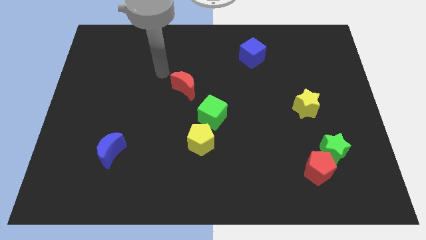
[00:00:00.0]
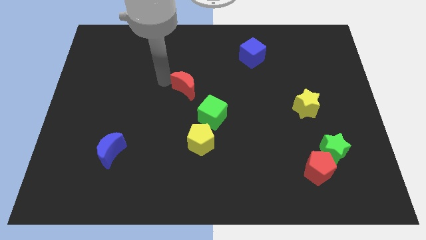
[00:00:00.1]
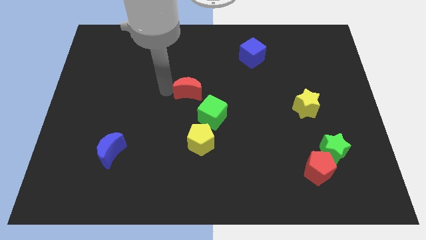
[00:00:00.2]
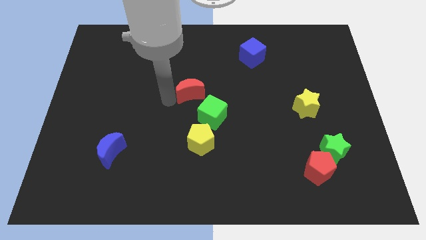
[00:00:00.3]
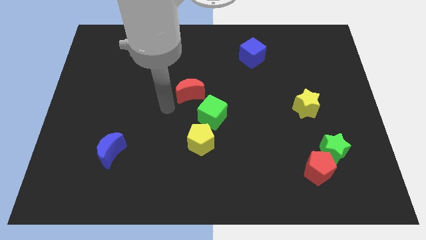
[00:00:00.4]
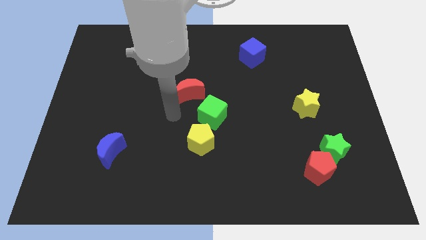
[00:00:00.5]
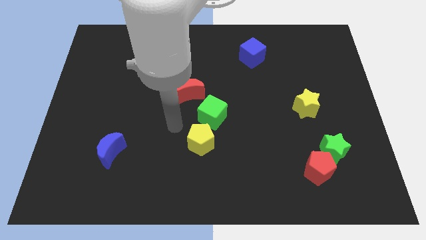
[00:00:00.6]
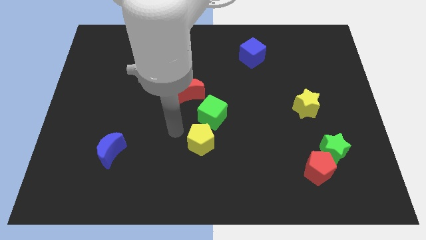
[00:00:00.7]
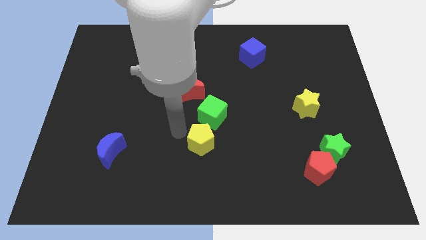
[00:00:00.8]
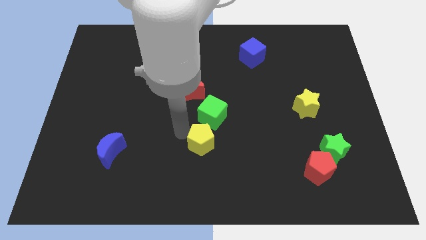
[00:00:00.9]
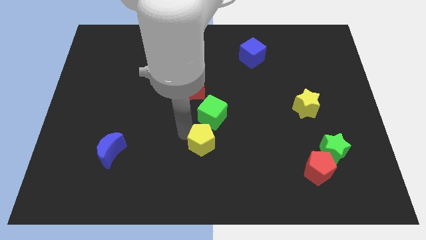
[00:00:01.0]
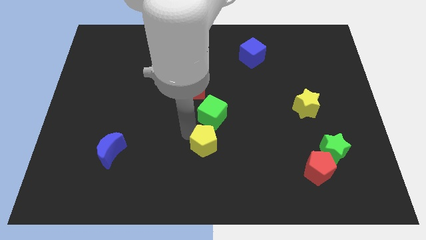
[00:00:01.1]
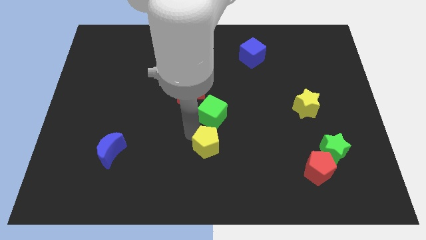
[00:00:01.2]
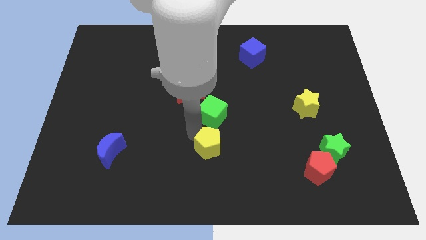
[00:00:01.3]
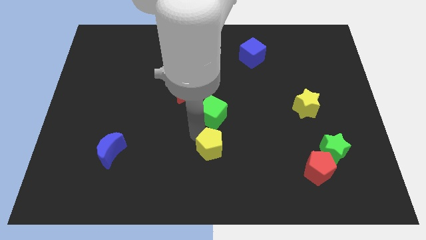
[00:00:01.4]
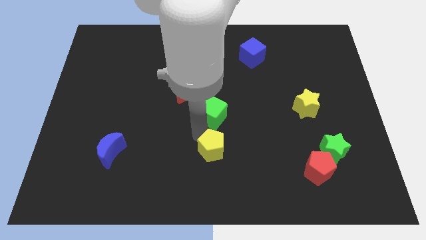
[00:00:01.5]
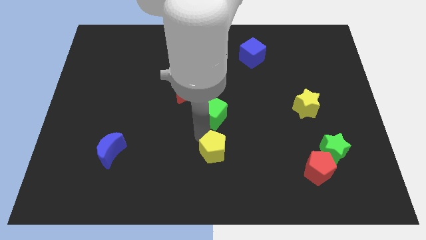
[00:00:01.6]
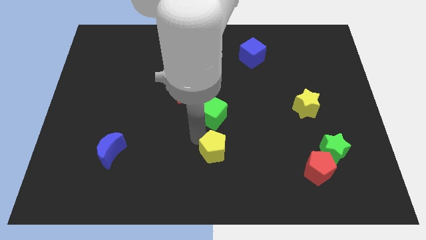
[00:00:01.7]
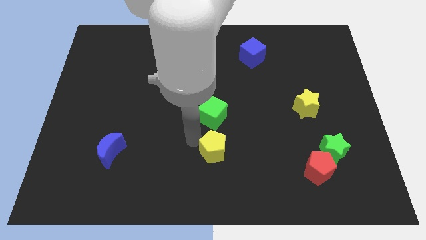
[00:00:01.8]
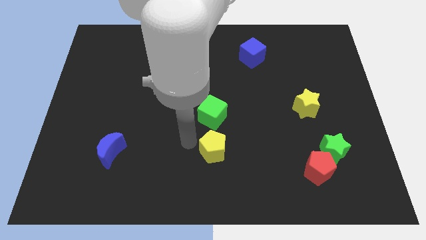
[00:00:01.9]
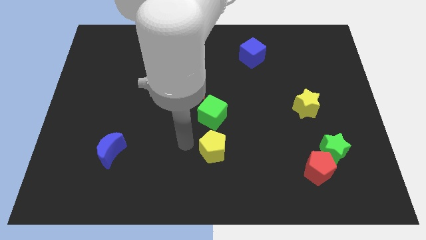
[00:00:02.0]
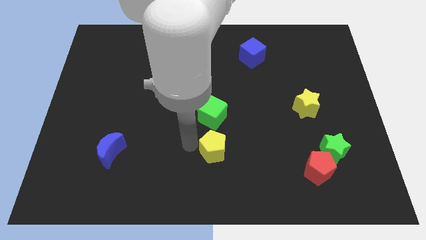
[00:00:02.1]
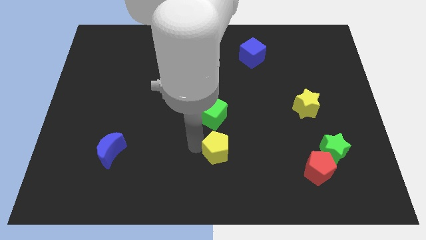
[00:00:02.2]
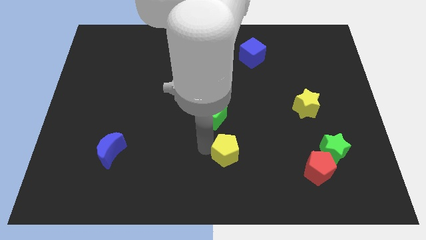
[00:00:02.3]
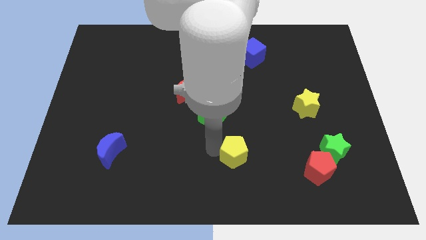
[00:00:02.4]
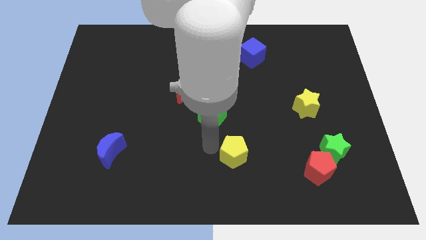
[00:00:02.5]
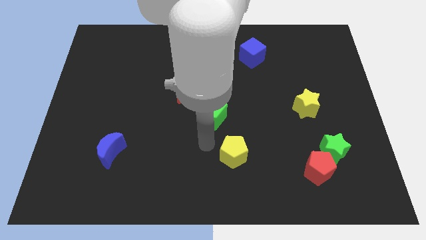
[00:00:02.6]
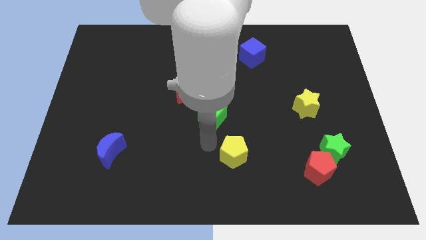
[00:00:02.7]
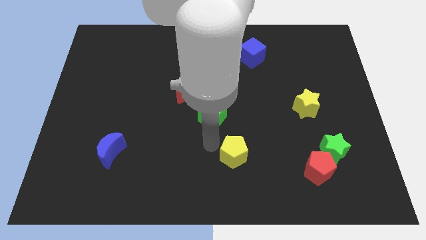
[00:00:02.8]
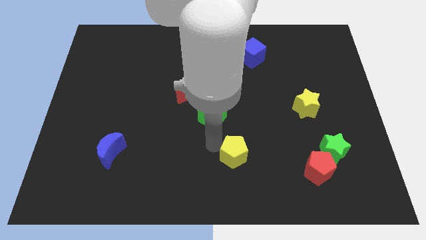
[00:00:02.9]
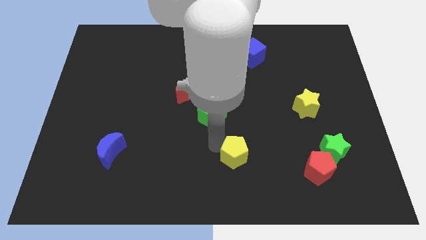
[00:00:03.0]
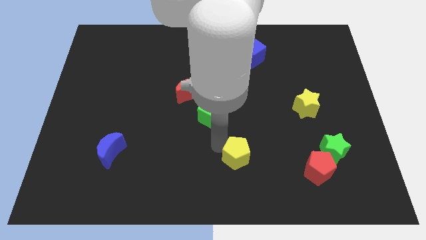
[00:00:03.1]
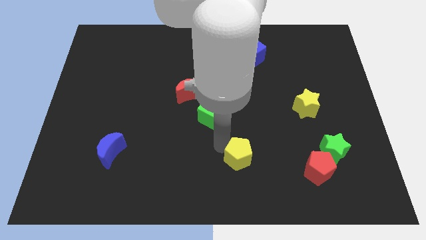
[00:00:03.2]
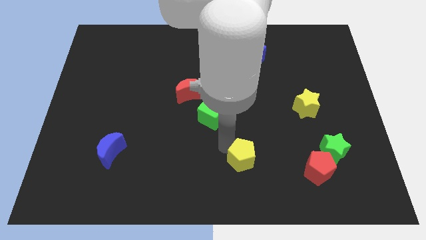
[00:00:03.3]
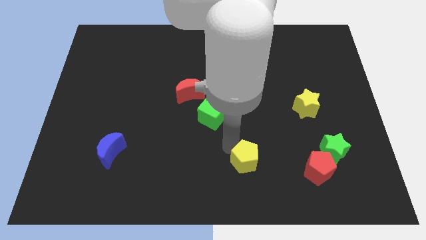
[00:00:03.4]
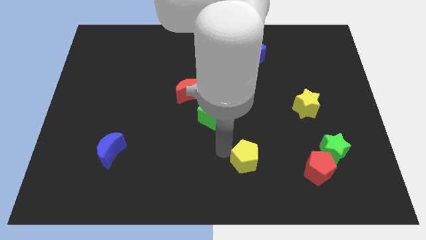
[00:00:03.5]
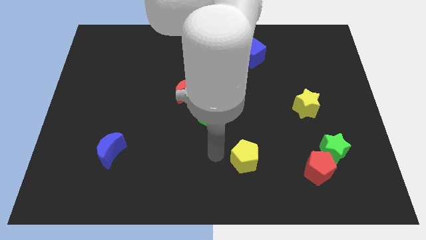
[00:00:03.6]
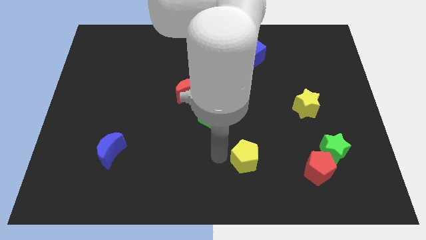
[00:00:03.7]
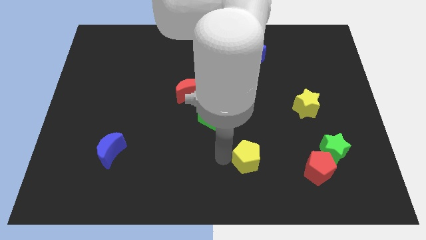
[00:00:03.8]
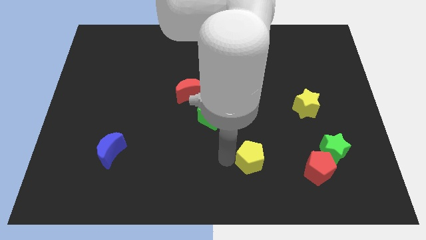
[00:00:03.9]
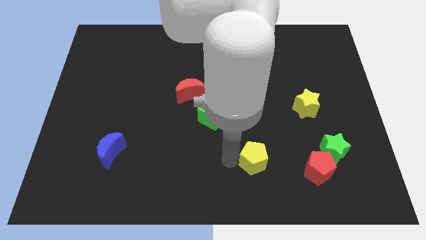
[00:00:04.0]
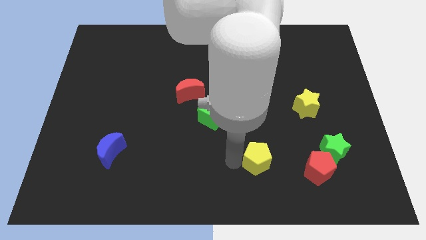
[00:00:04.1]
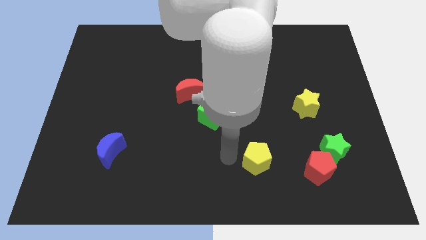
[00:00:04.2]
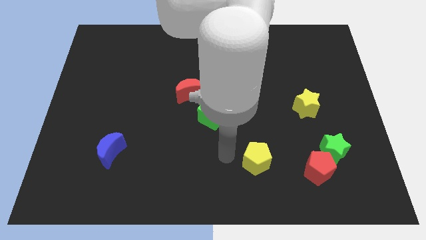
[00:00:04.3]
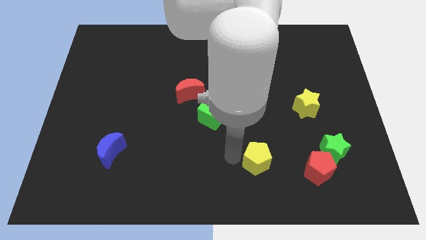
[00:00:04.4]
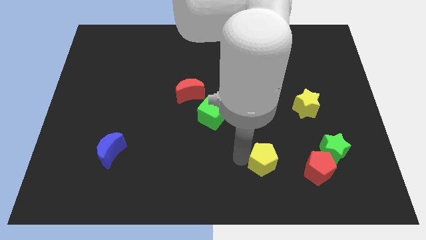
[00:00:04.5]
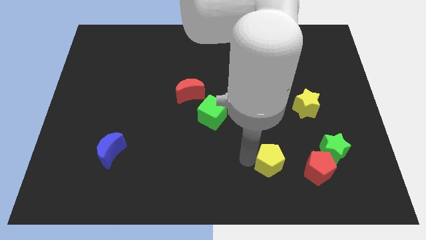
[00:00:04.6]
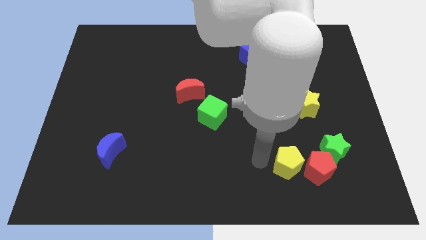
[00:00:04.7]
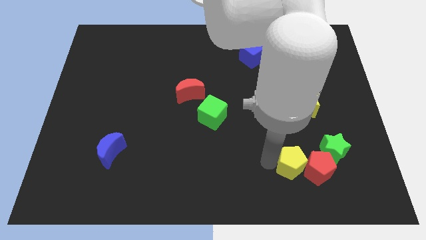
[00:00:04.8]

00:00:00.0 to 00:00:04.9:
put the yellow pentagon to the red pentagon

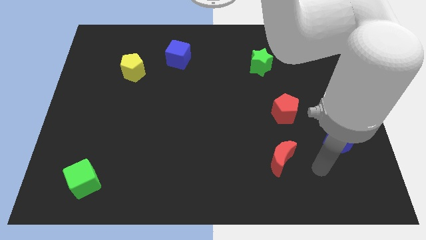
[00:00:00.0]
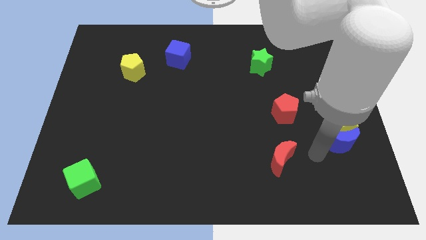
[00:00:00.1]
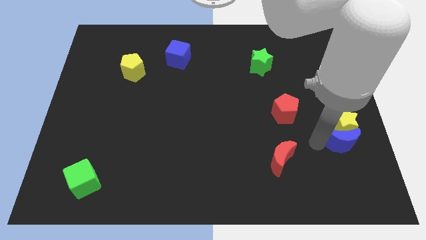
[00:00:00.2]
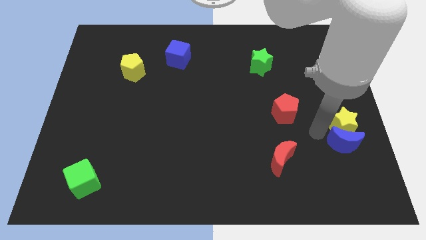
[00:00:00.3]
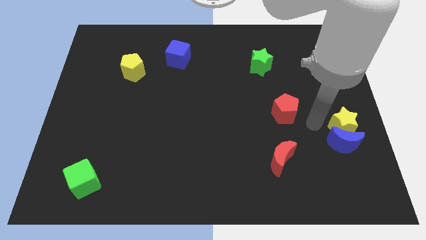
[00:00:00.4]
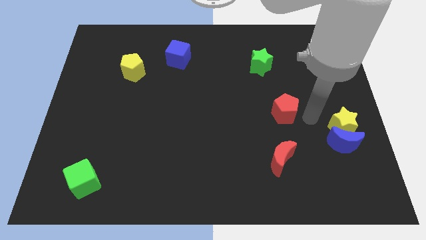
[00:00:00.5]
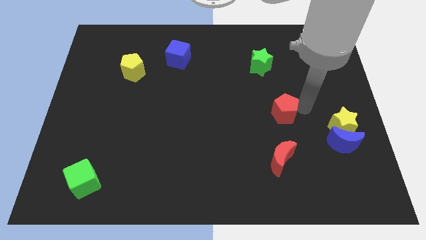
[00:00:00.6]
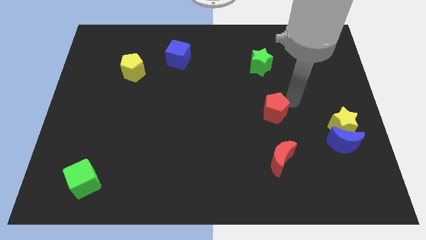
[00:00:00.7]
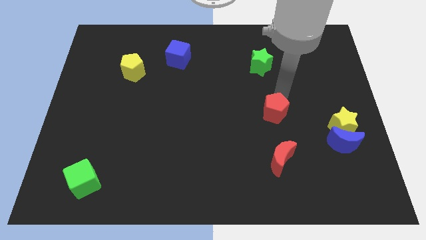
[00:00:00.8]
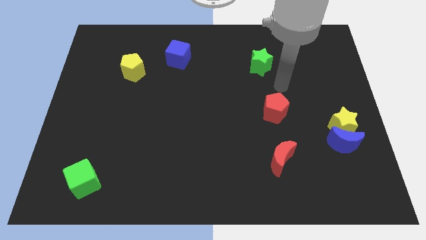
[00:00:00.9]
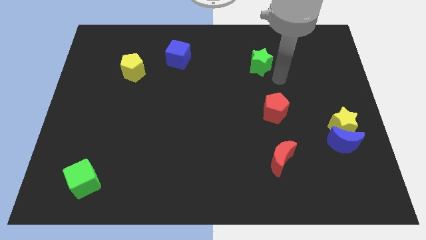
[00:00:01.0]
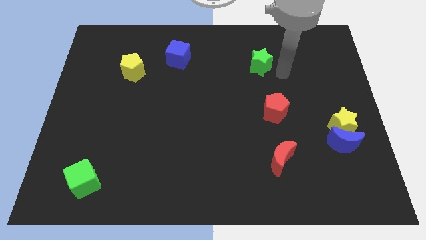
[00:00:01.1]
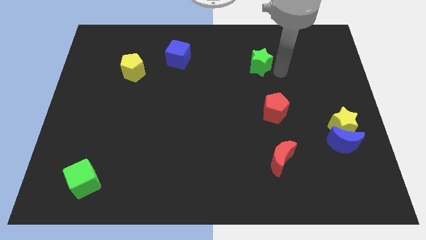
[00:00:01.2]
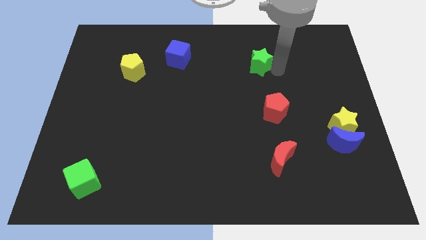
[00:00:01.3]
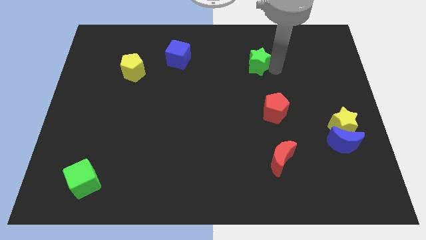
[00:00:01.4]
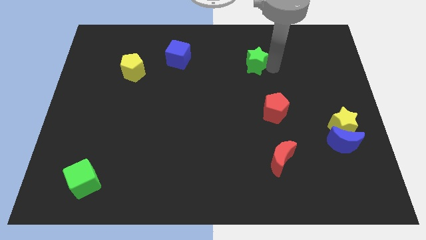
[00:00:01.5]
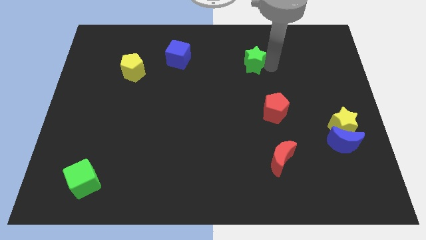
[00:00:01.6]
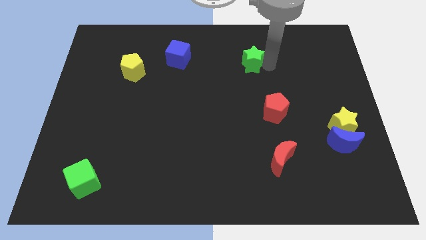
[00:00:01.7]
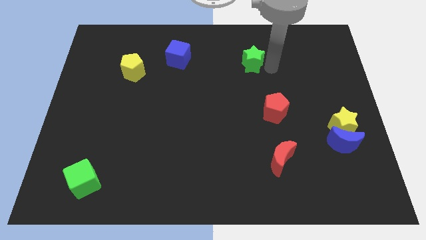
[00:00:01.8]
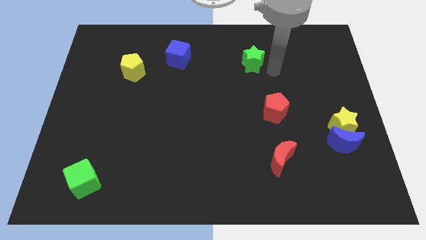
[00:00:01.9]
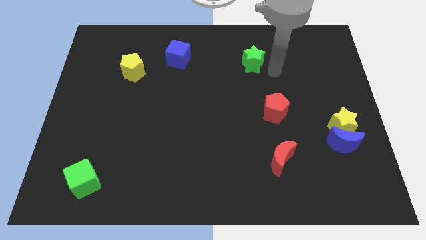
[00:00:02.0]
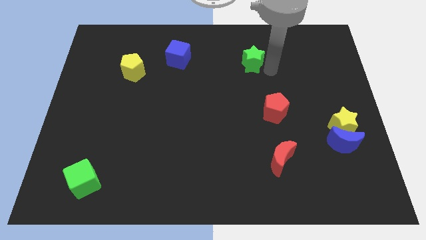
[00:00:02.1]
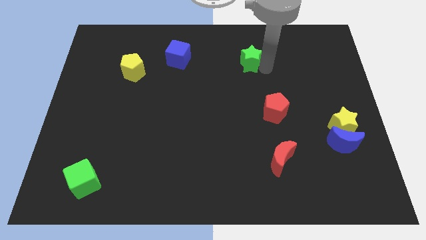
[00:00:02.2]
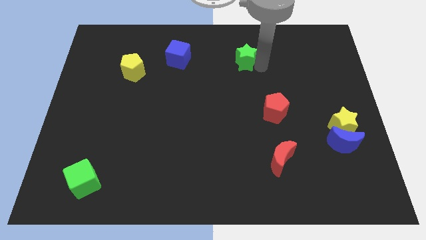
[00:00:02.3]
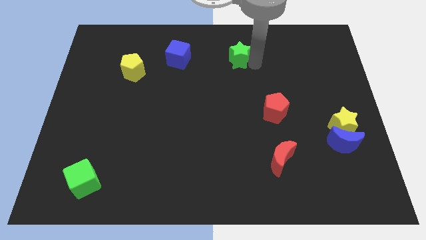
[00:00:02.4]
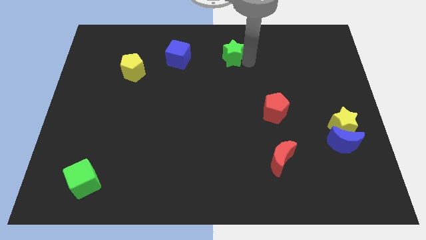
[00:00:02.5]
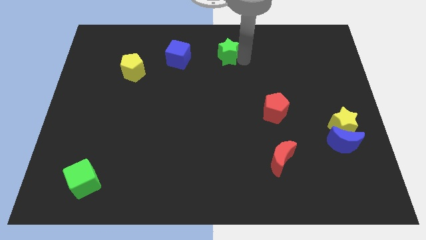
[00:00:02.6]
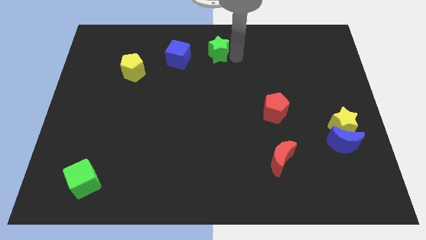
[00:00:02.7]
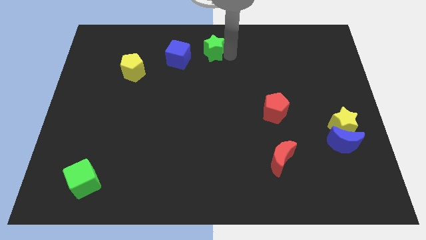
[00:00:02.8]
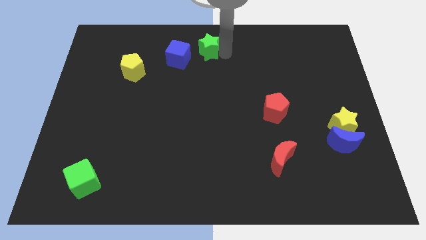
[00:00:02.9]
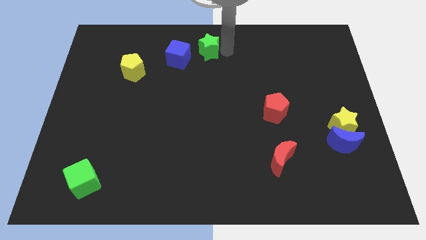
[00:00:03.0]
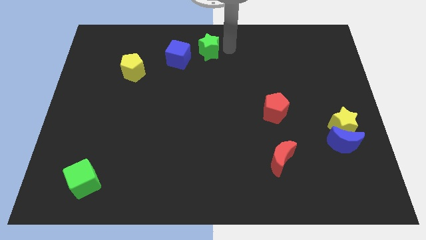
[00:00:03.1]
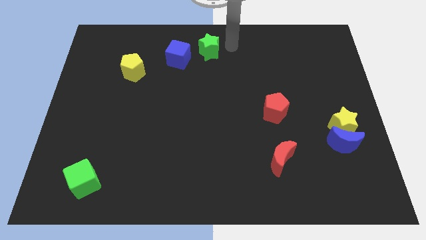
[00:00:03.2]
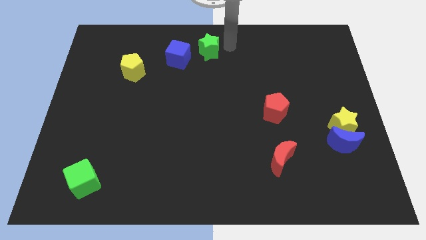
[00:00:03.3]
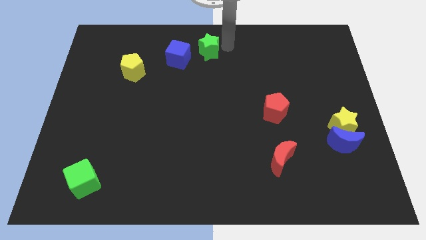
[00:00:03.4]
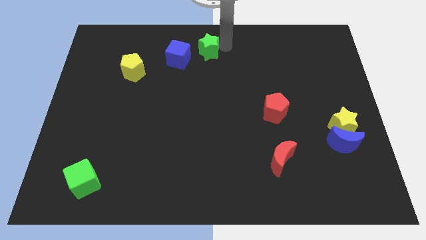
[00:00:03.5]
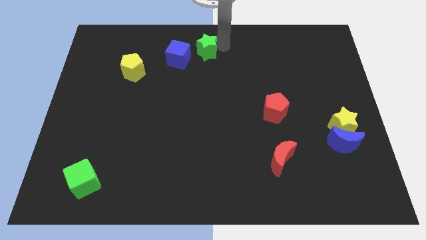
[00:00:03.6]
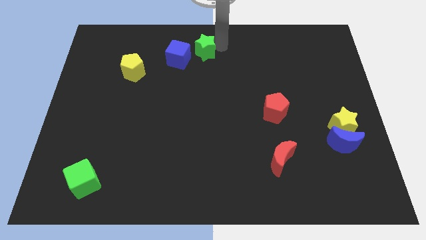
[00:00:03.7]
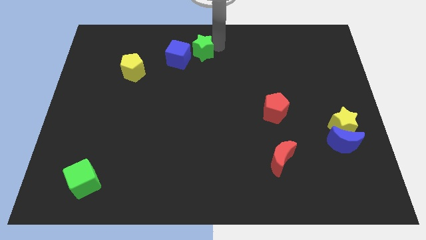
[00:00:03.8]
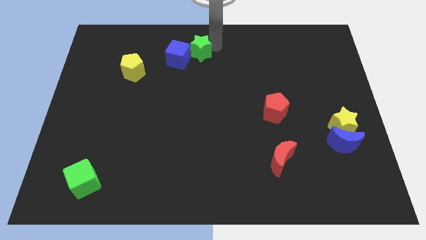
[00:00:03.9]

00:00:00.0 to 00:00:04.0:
slide the green star to the blue cube
